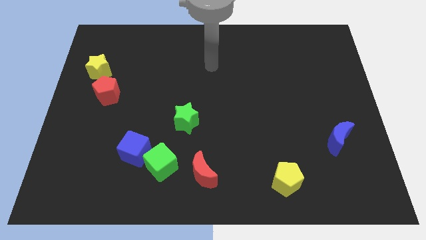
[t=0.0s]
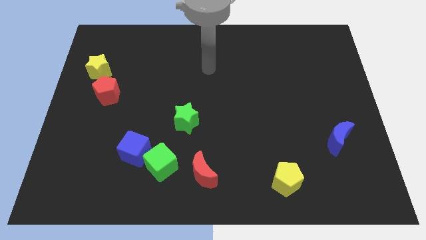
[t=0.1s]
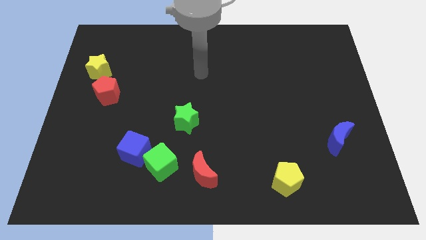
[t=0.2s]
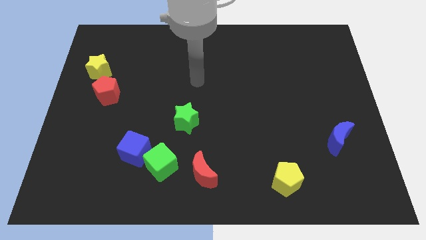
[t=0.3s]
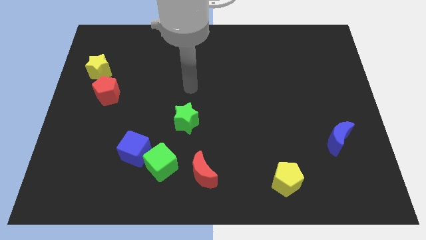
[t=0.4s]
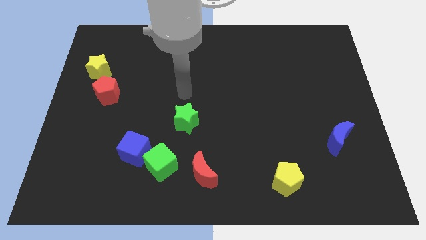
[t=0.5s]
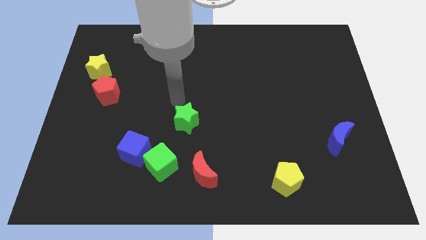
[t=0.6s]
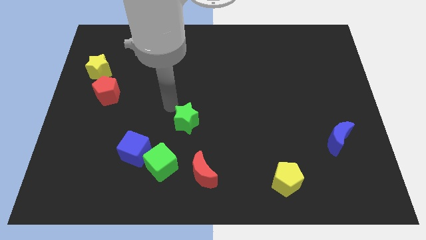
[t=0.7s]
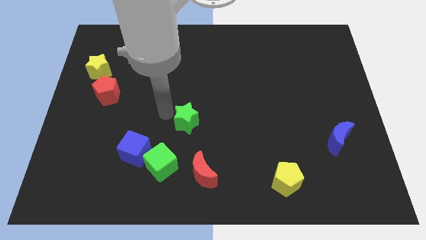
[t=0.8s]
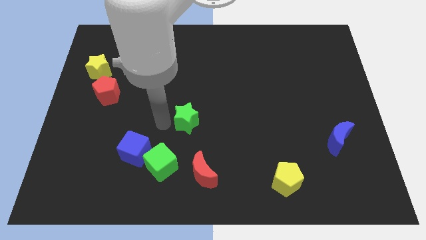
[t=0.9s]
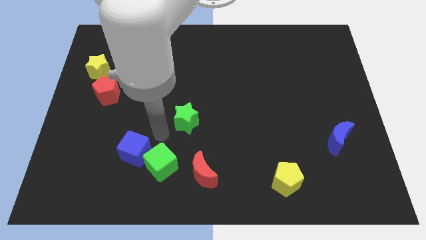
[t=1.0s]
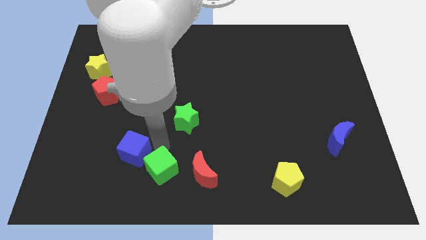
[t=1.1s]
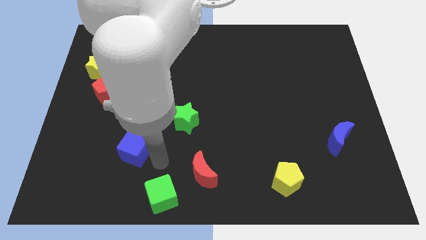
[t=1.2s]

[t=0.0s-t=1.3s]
move the blue cube away from the green cube

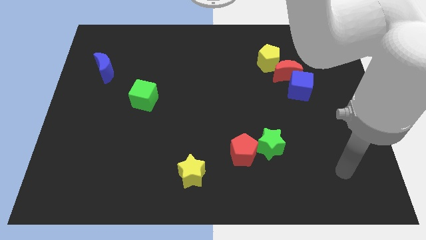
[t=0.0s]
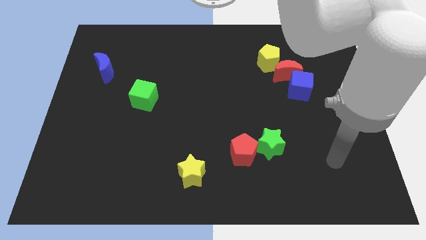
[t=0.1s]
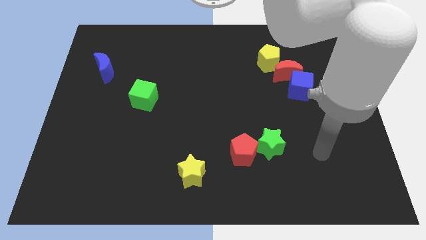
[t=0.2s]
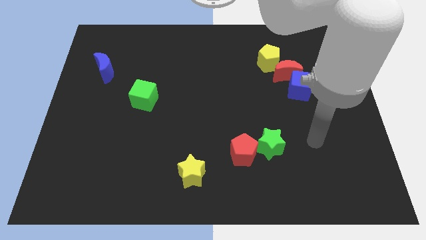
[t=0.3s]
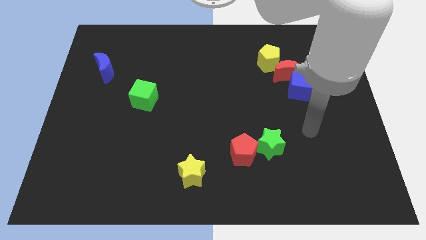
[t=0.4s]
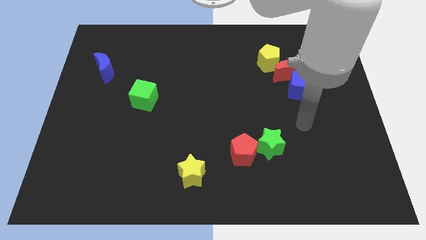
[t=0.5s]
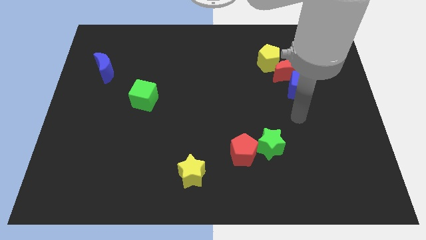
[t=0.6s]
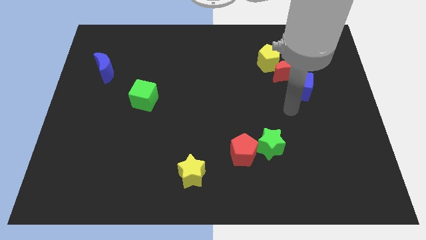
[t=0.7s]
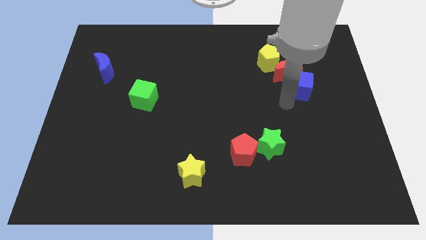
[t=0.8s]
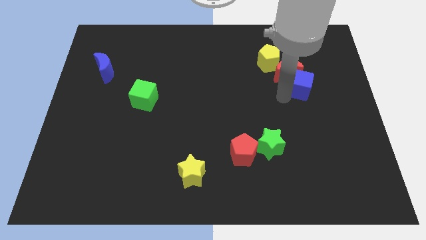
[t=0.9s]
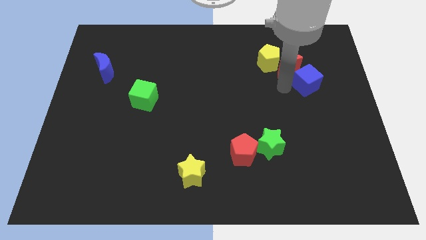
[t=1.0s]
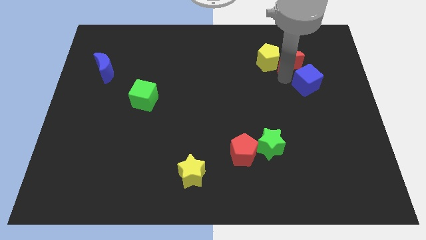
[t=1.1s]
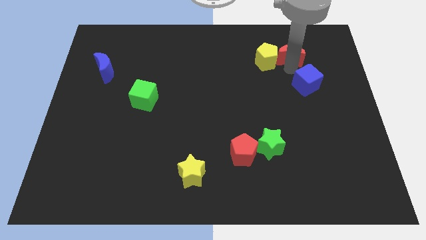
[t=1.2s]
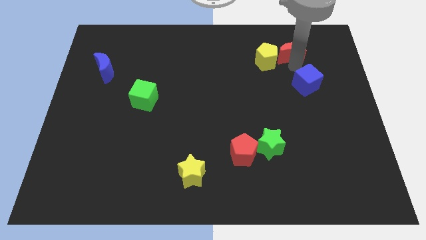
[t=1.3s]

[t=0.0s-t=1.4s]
separate the blue cube from the red moon

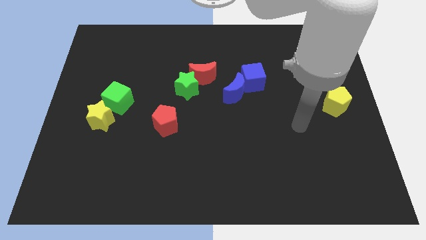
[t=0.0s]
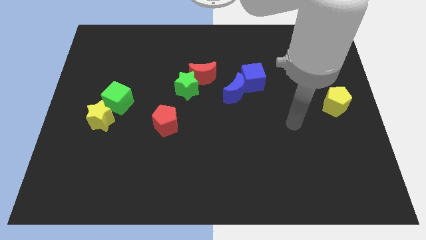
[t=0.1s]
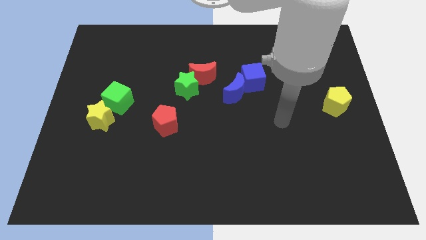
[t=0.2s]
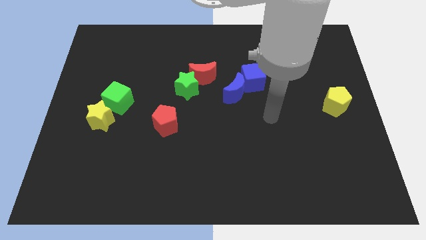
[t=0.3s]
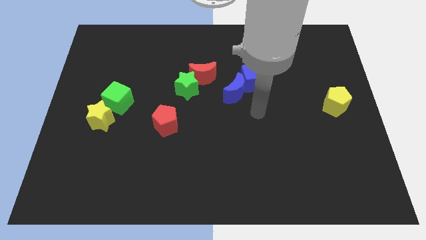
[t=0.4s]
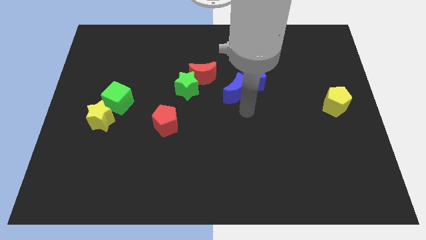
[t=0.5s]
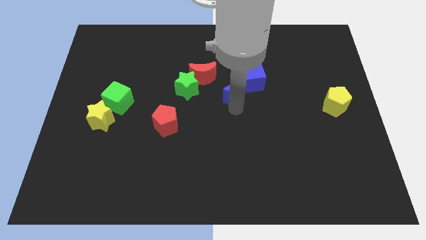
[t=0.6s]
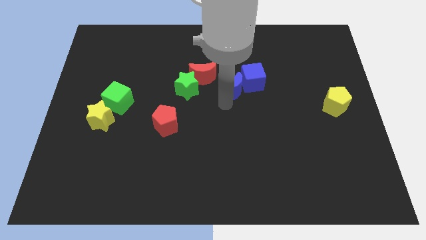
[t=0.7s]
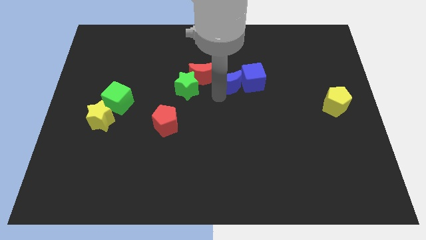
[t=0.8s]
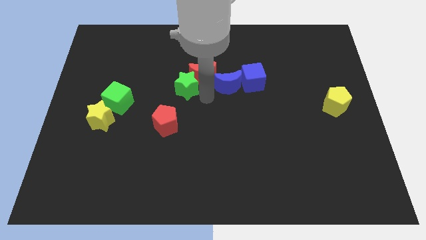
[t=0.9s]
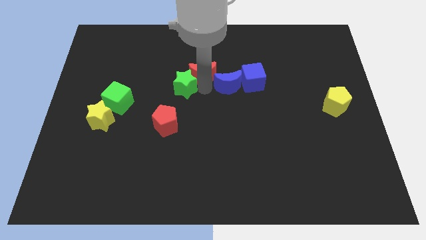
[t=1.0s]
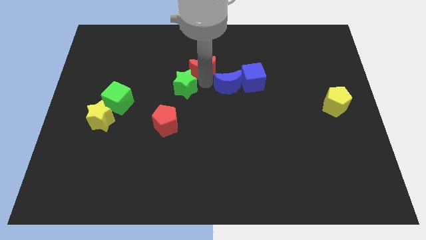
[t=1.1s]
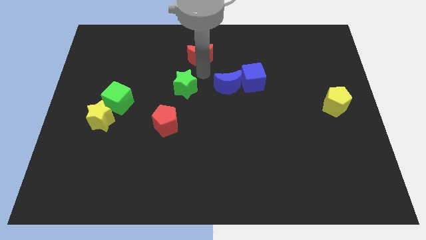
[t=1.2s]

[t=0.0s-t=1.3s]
separate the green star from the red moon

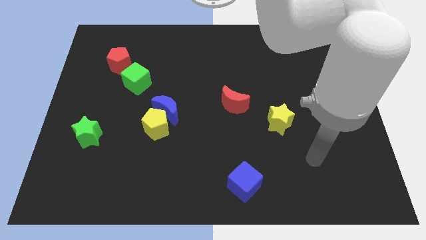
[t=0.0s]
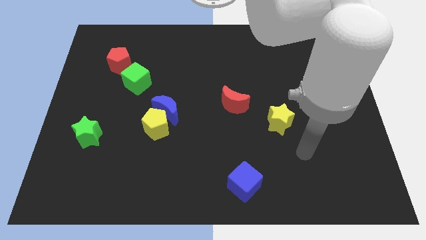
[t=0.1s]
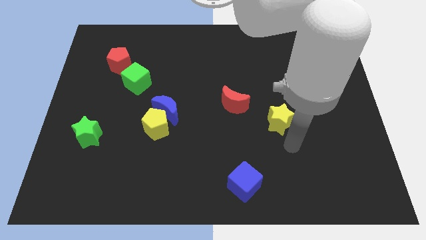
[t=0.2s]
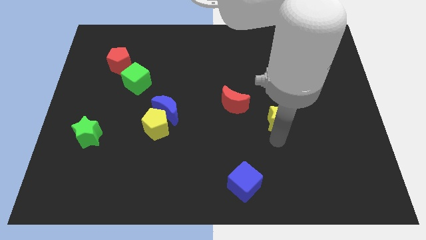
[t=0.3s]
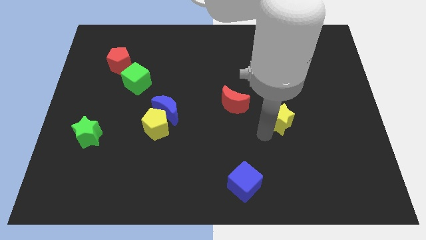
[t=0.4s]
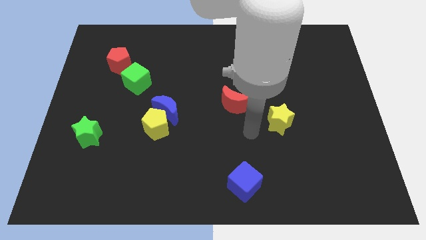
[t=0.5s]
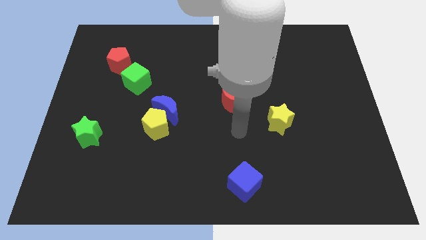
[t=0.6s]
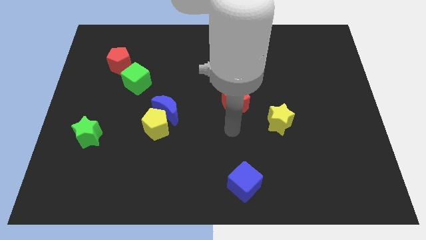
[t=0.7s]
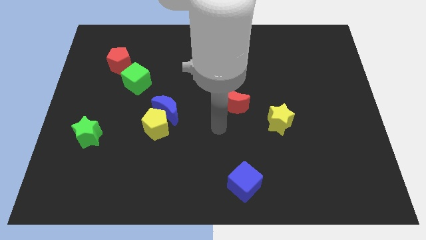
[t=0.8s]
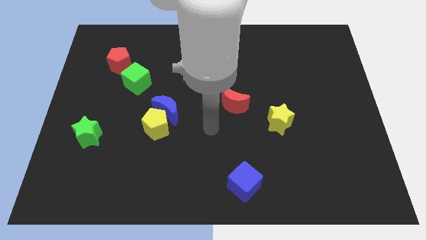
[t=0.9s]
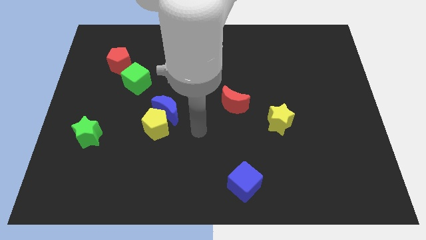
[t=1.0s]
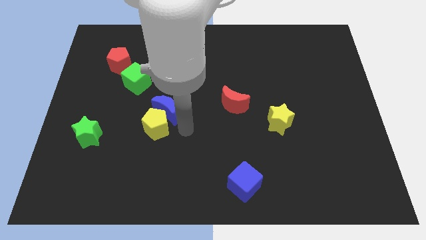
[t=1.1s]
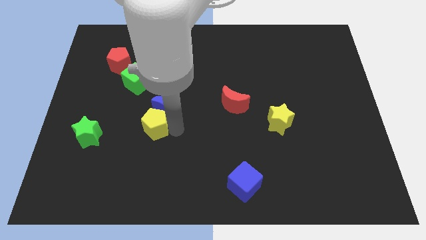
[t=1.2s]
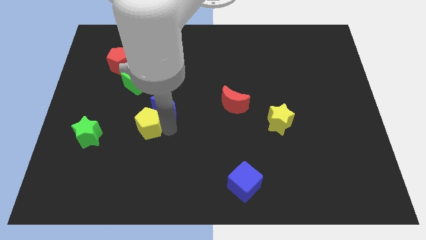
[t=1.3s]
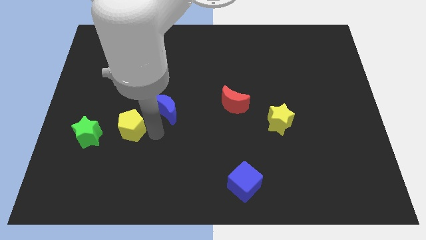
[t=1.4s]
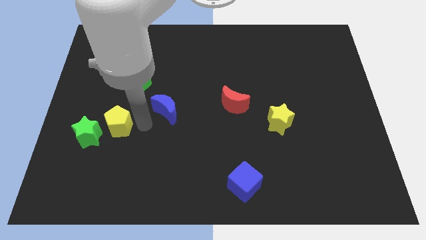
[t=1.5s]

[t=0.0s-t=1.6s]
separate the blue moon from the yellow pentagon

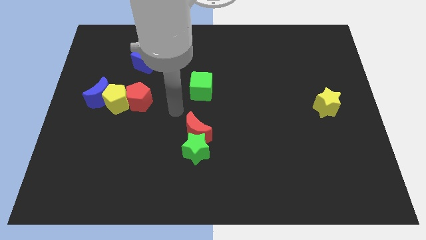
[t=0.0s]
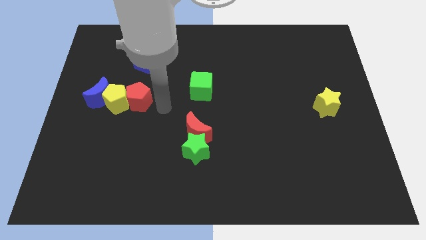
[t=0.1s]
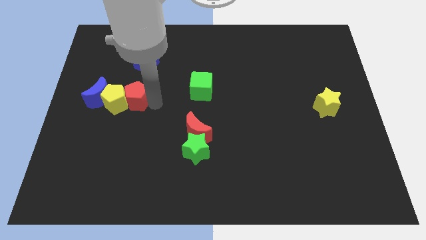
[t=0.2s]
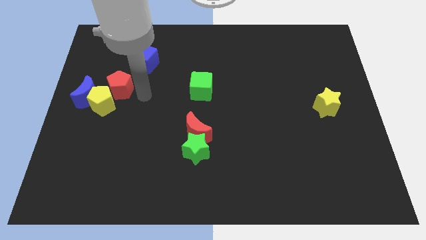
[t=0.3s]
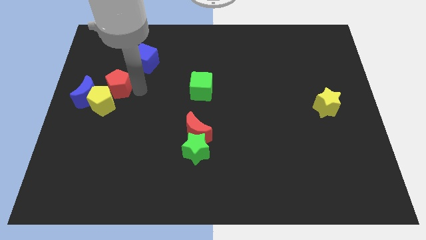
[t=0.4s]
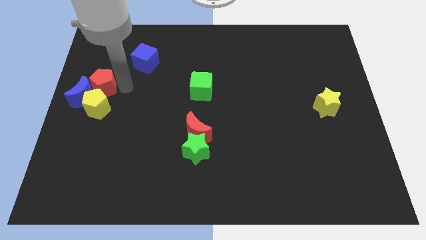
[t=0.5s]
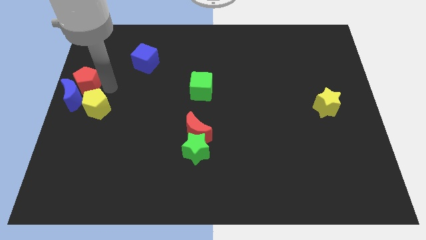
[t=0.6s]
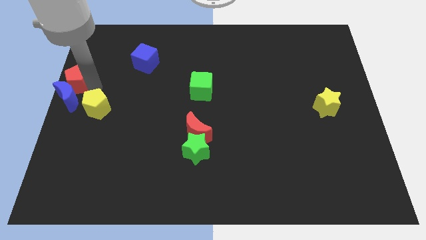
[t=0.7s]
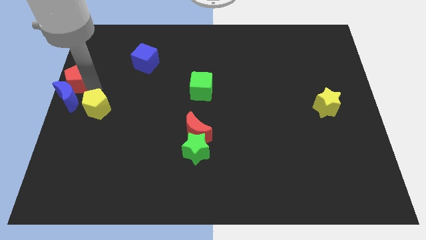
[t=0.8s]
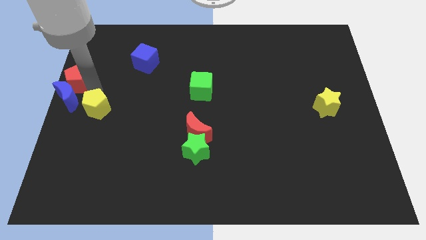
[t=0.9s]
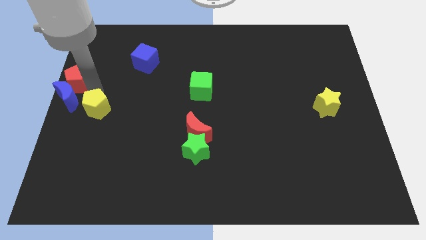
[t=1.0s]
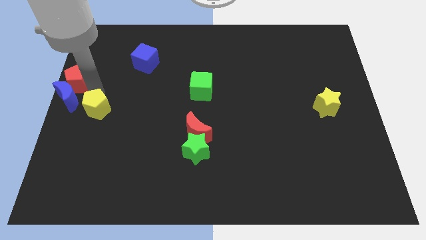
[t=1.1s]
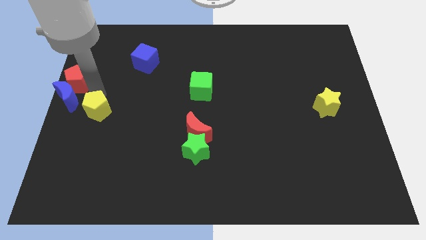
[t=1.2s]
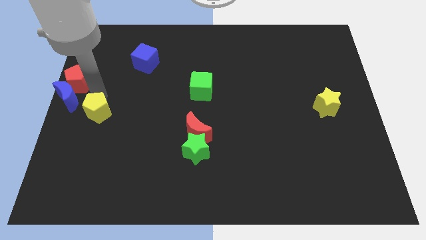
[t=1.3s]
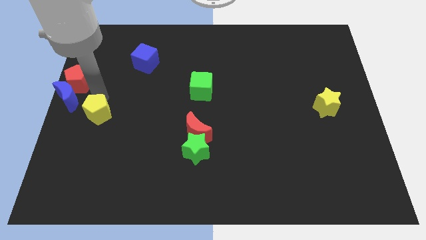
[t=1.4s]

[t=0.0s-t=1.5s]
separate the yellow pentagon from the blue moon and red pentagon

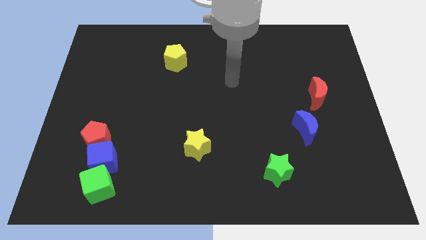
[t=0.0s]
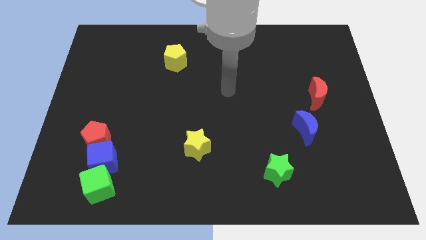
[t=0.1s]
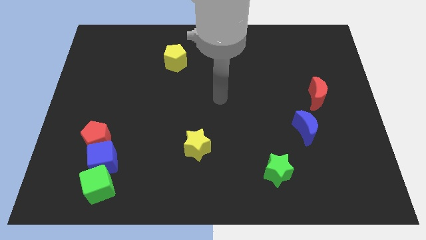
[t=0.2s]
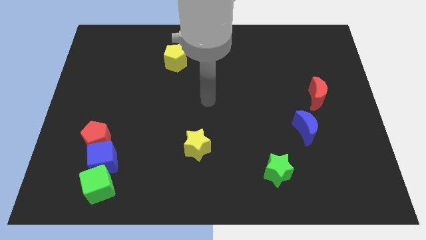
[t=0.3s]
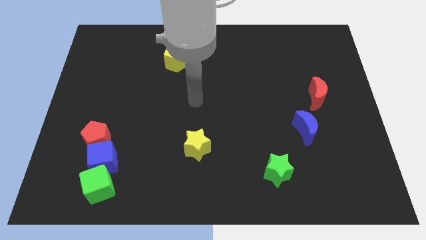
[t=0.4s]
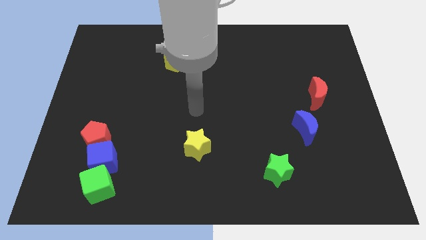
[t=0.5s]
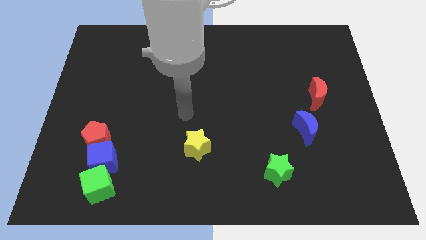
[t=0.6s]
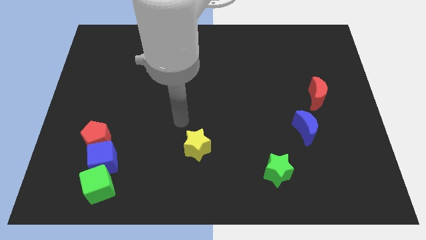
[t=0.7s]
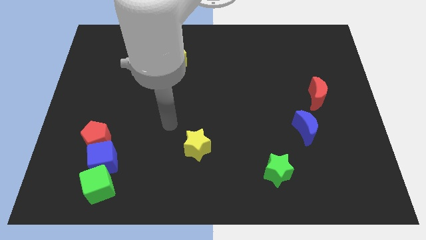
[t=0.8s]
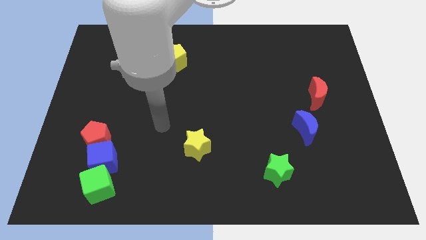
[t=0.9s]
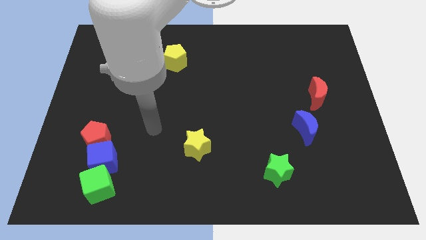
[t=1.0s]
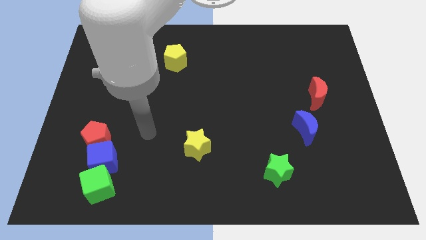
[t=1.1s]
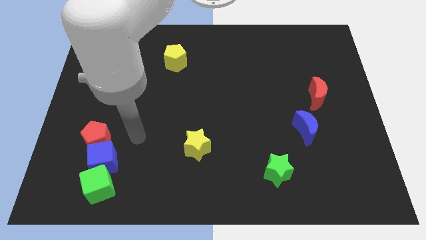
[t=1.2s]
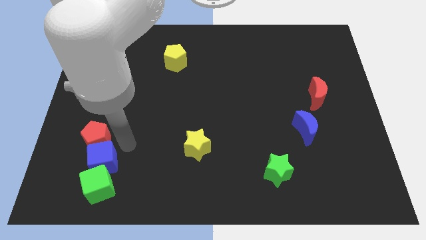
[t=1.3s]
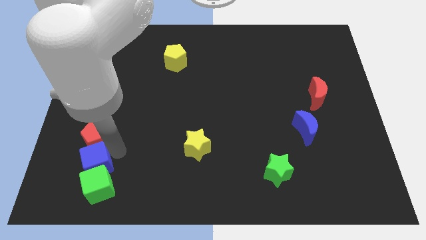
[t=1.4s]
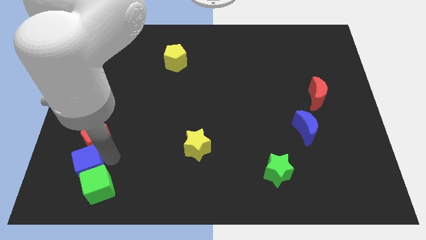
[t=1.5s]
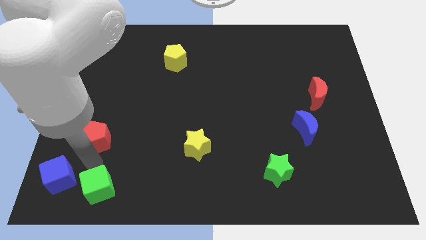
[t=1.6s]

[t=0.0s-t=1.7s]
move the red pentagon away from the blue cube

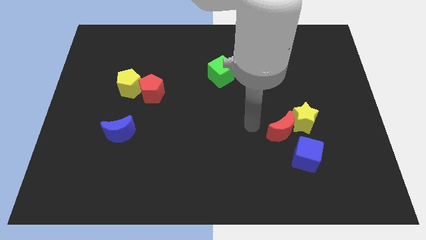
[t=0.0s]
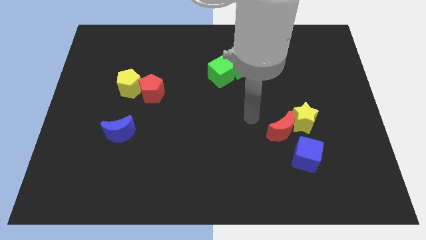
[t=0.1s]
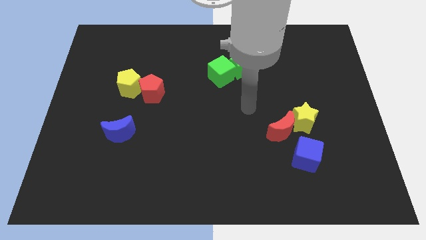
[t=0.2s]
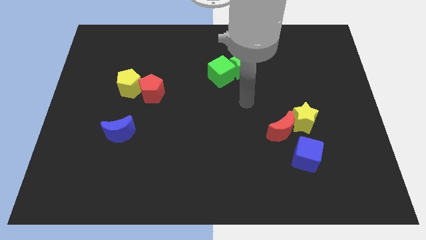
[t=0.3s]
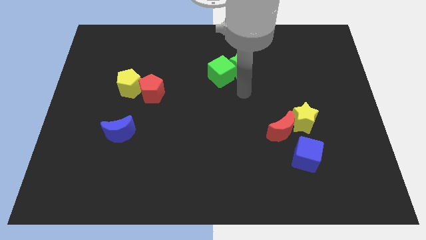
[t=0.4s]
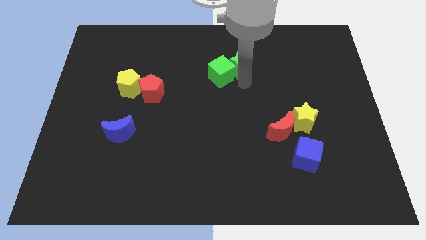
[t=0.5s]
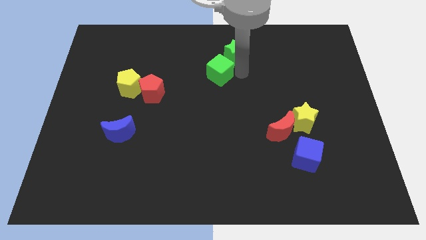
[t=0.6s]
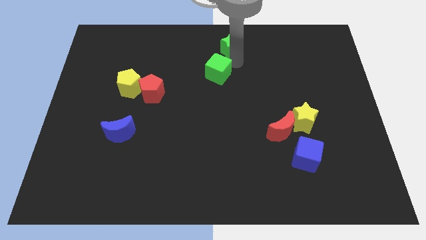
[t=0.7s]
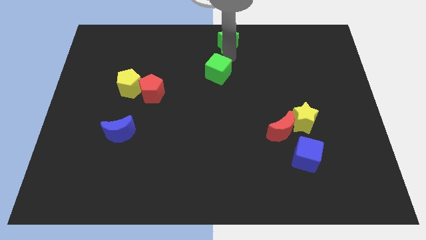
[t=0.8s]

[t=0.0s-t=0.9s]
pull the green cube apart from the green star
